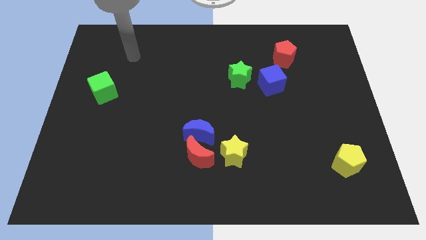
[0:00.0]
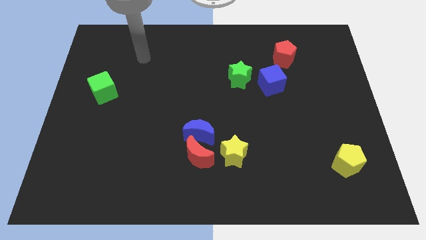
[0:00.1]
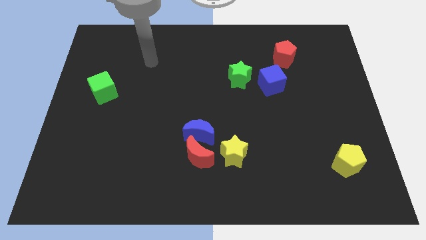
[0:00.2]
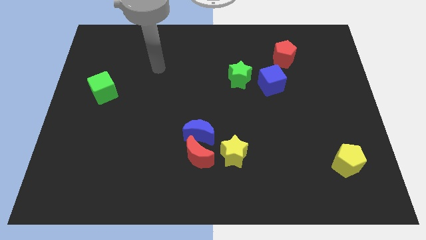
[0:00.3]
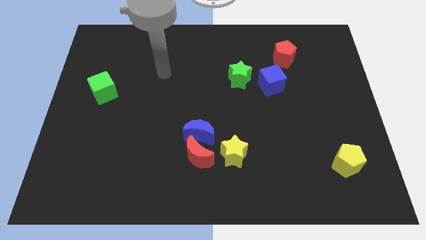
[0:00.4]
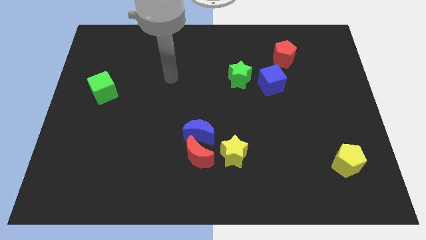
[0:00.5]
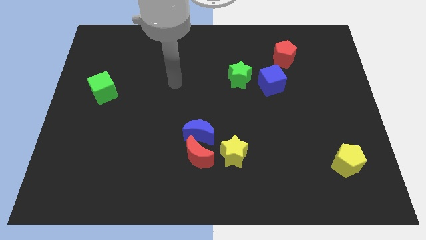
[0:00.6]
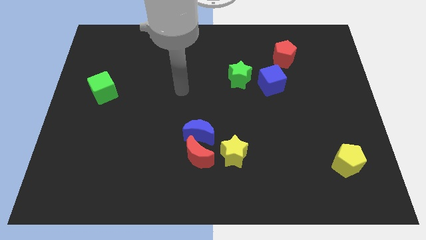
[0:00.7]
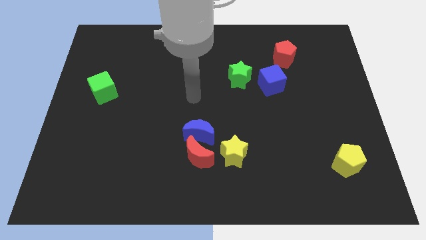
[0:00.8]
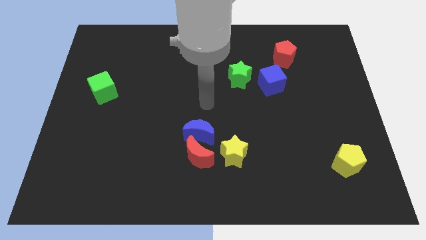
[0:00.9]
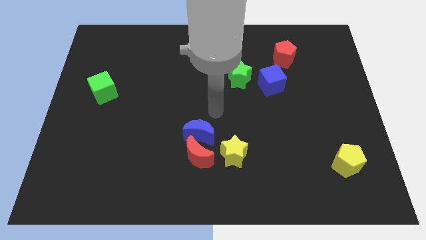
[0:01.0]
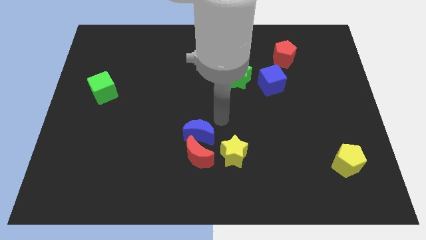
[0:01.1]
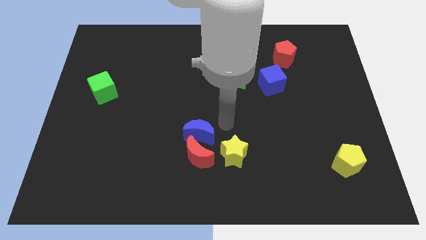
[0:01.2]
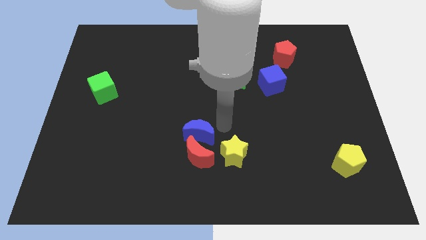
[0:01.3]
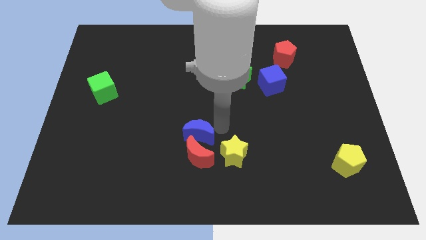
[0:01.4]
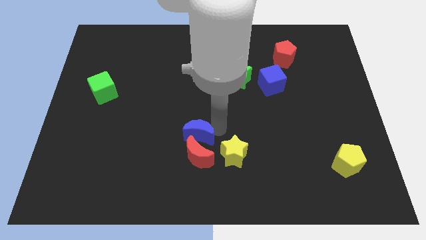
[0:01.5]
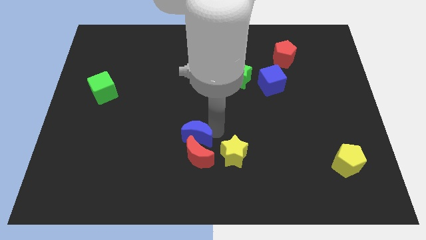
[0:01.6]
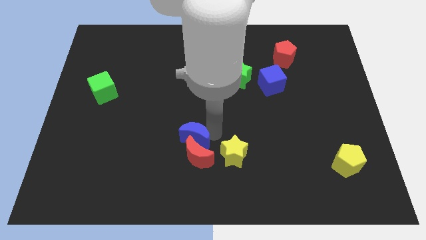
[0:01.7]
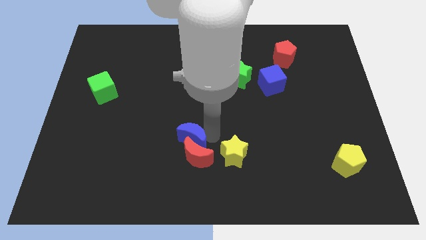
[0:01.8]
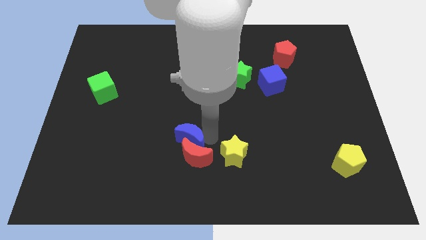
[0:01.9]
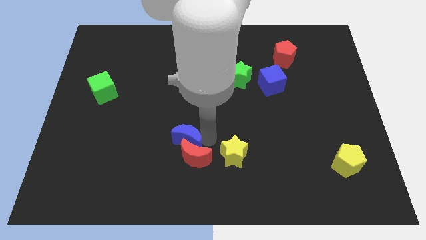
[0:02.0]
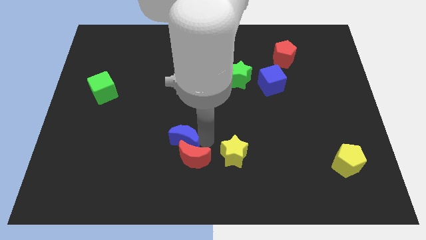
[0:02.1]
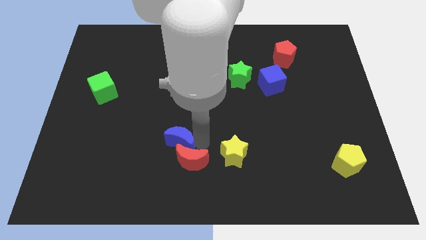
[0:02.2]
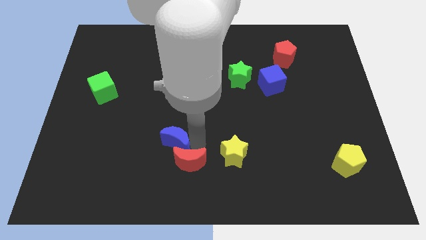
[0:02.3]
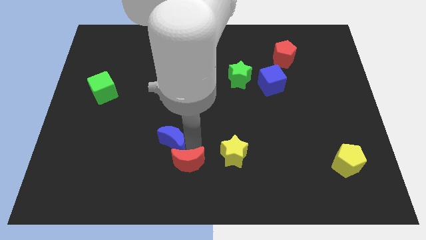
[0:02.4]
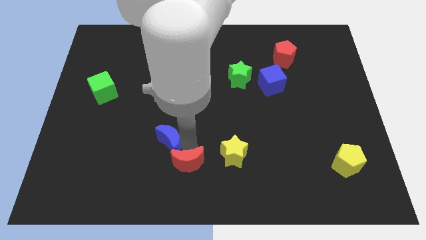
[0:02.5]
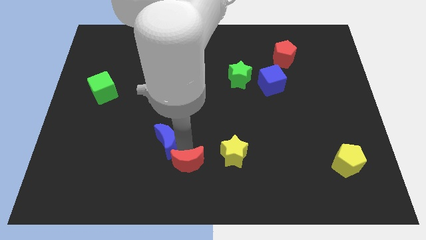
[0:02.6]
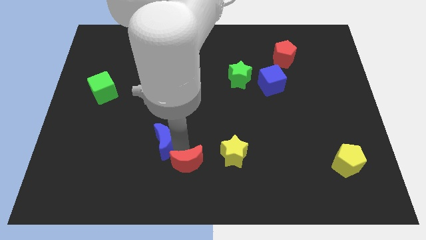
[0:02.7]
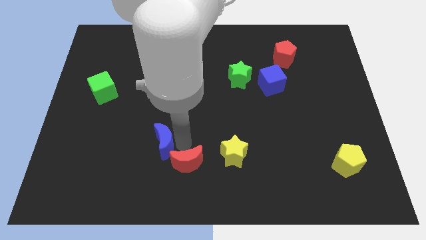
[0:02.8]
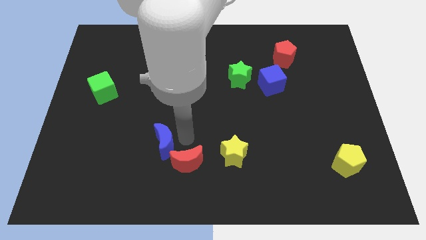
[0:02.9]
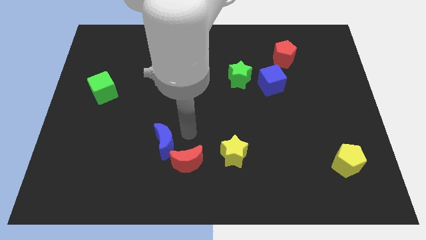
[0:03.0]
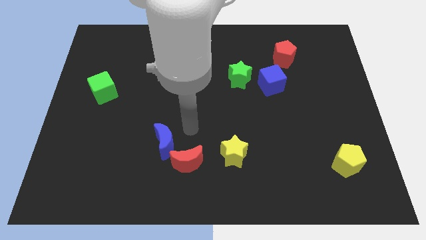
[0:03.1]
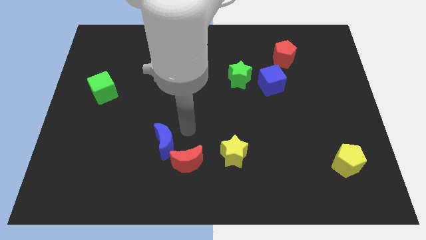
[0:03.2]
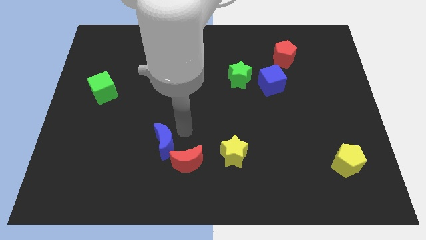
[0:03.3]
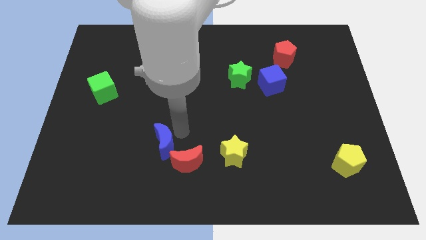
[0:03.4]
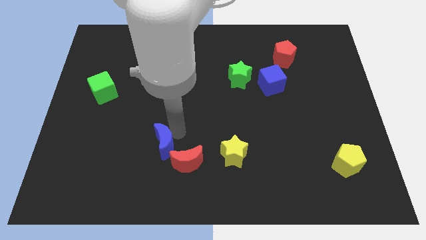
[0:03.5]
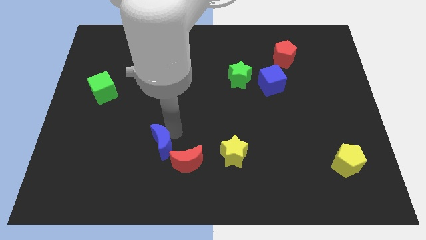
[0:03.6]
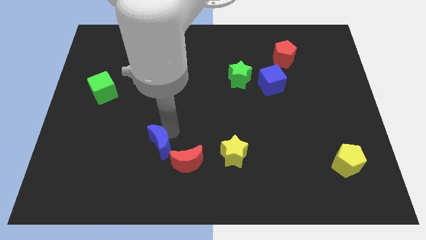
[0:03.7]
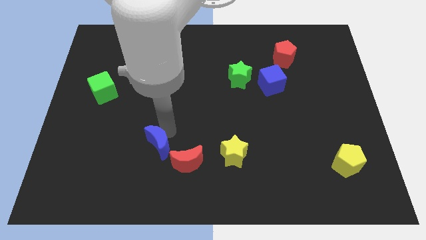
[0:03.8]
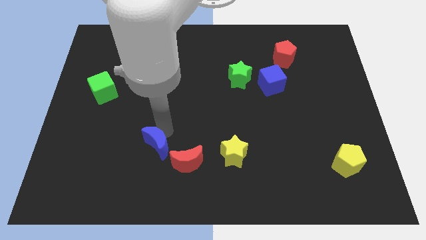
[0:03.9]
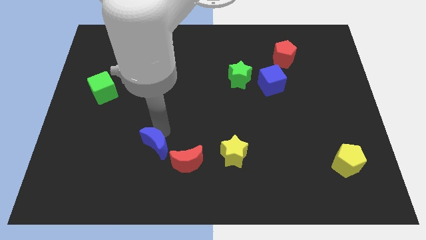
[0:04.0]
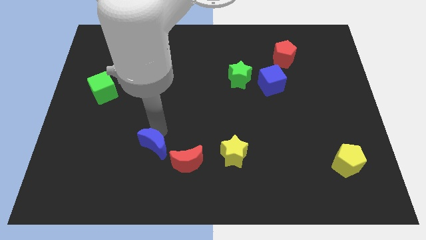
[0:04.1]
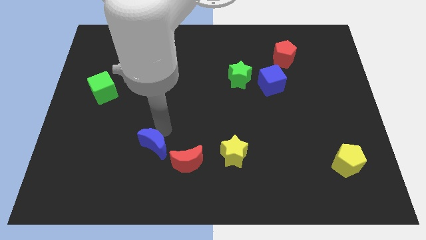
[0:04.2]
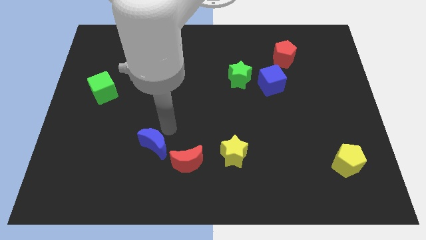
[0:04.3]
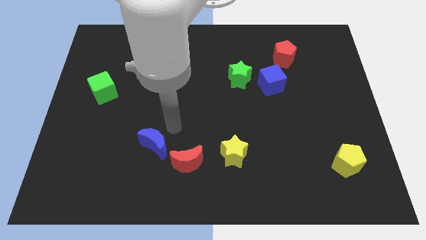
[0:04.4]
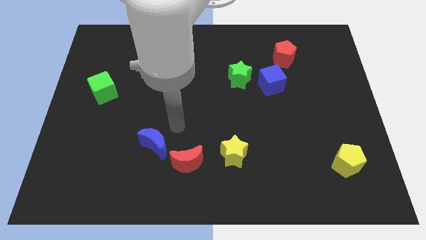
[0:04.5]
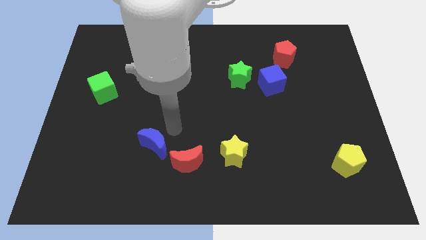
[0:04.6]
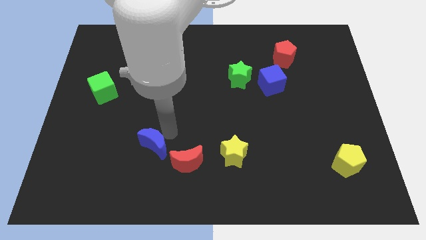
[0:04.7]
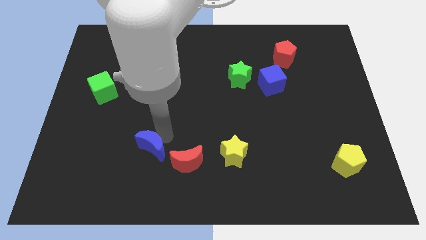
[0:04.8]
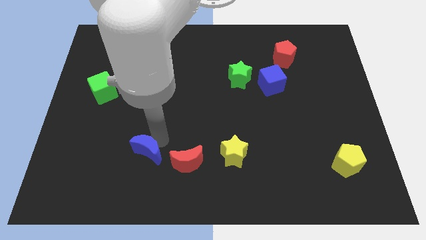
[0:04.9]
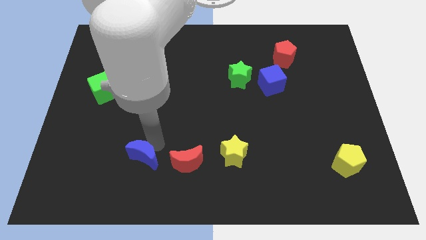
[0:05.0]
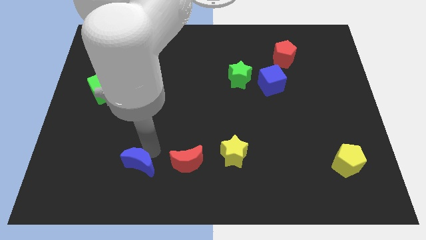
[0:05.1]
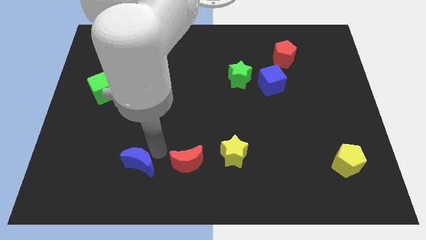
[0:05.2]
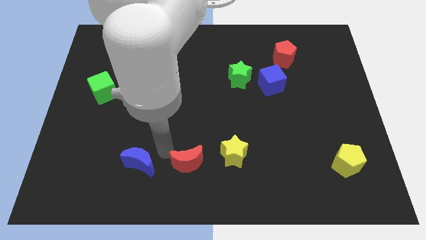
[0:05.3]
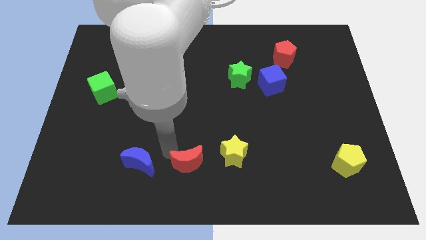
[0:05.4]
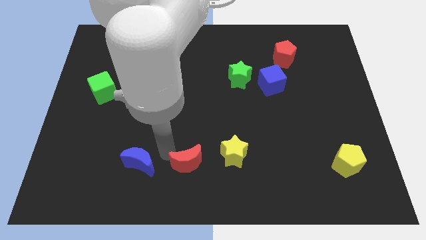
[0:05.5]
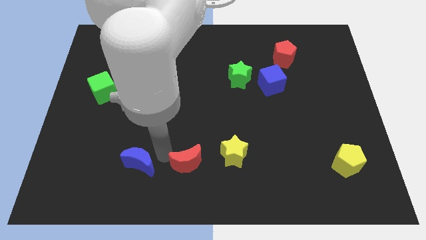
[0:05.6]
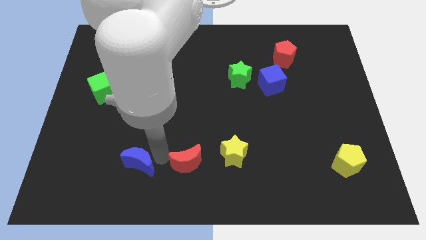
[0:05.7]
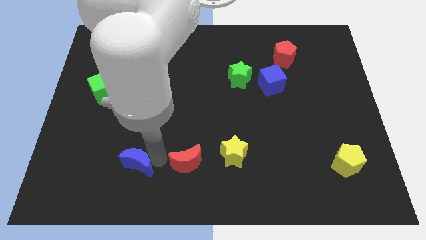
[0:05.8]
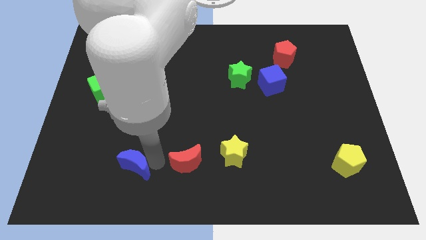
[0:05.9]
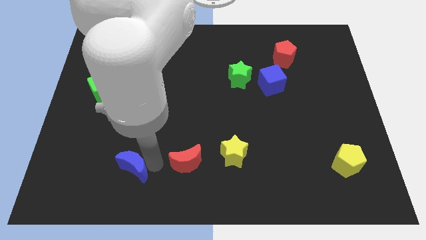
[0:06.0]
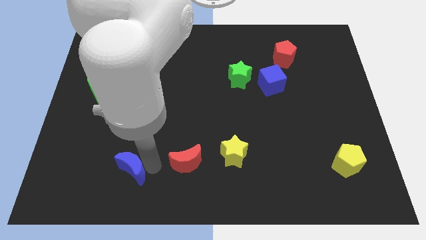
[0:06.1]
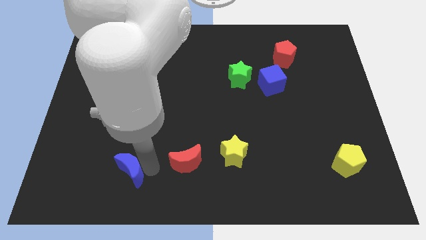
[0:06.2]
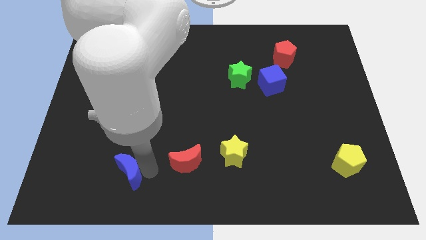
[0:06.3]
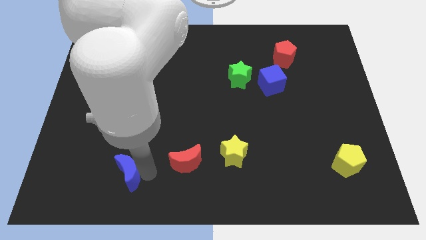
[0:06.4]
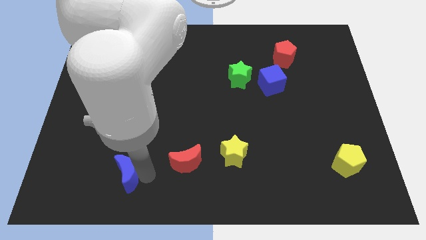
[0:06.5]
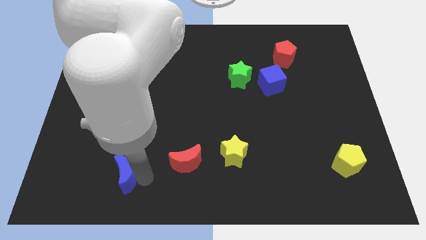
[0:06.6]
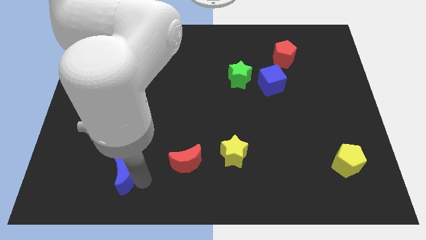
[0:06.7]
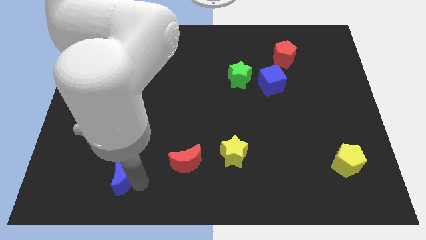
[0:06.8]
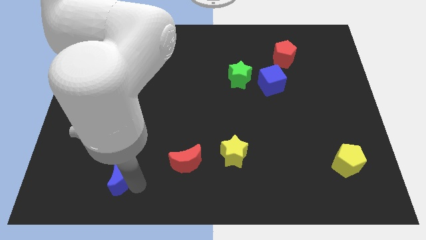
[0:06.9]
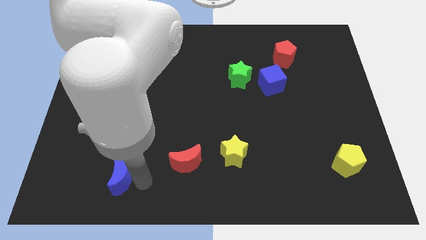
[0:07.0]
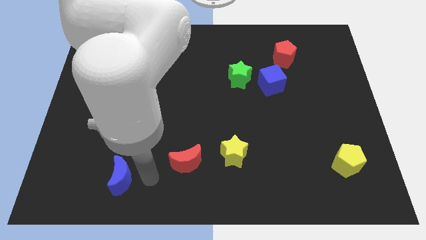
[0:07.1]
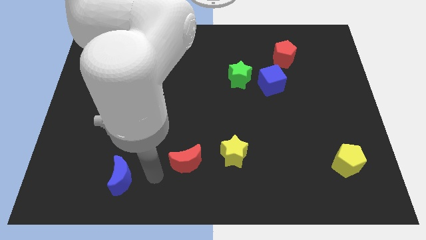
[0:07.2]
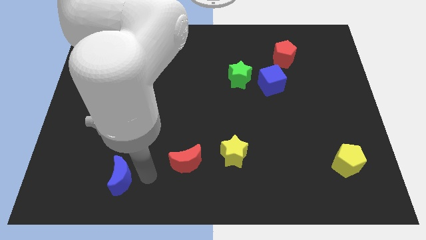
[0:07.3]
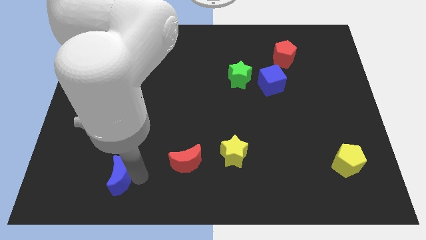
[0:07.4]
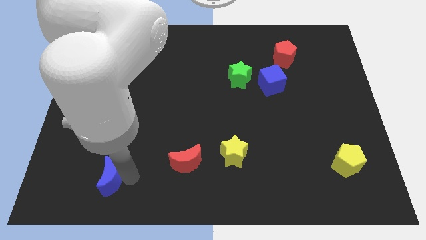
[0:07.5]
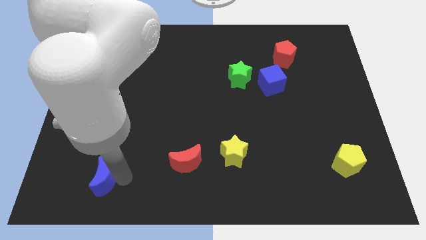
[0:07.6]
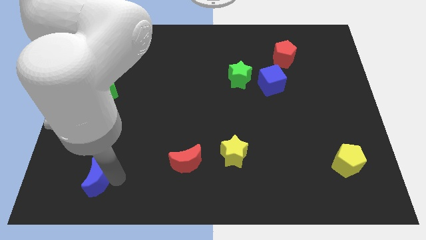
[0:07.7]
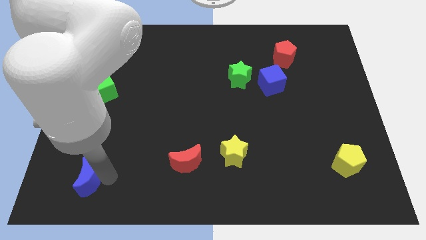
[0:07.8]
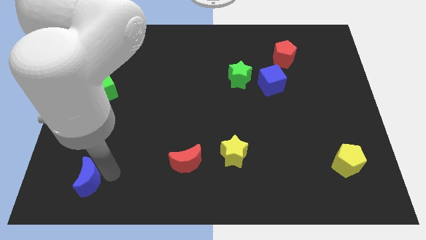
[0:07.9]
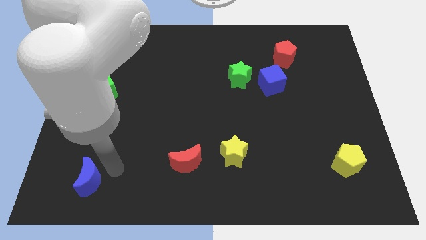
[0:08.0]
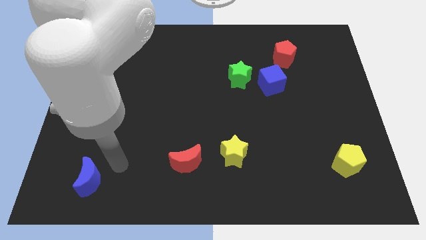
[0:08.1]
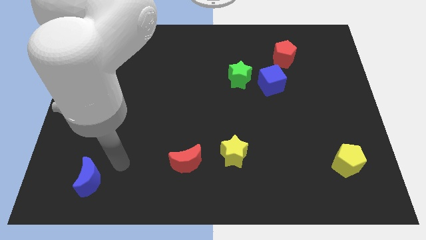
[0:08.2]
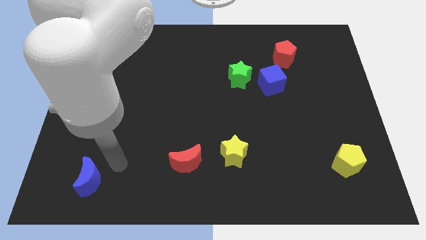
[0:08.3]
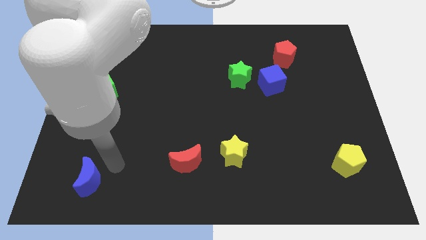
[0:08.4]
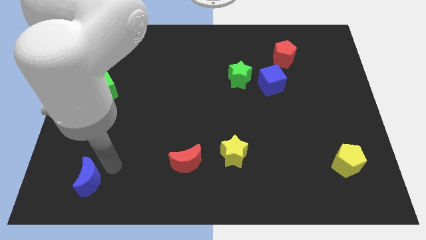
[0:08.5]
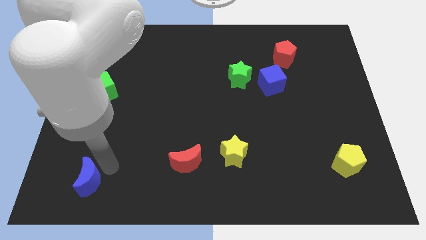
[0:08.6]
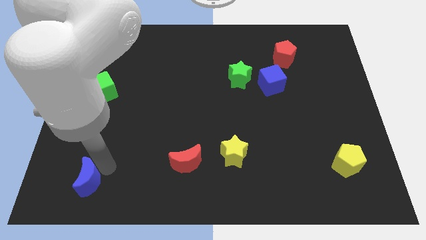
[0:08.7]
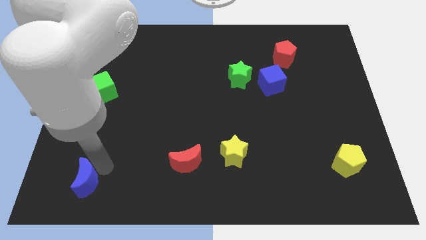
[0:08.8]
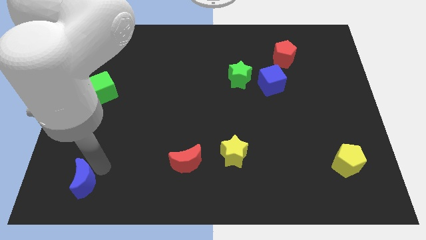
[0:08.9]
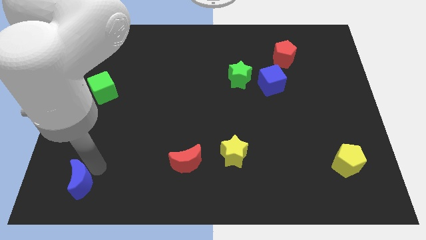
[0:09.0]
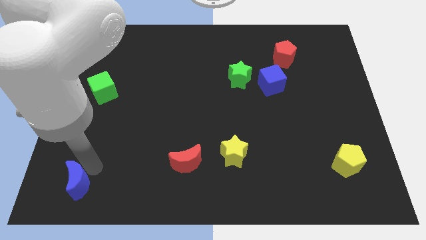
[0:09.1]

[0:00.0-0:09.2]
move the blue moon to the bottom left of the board
